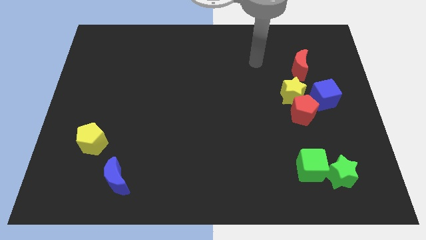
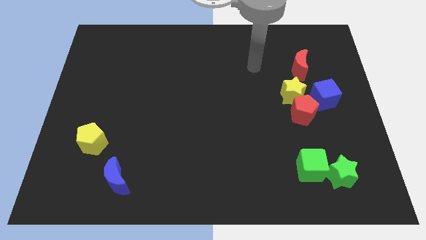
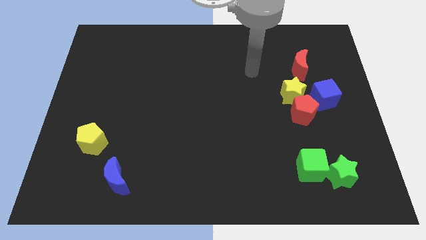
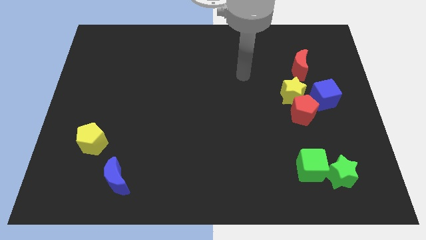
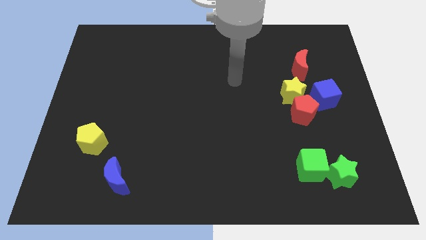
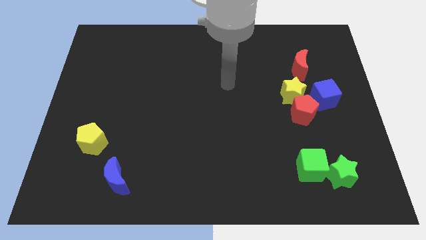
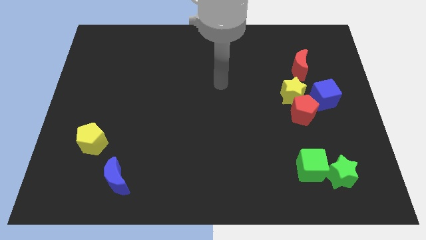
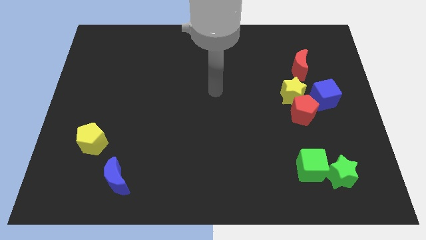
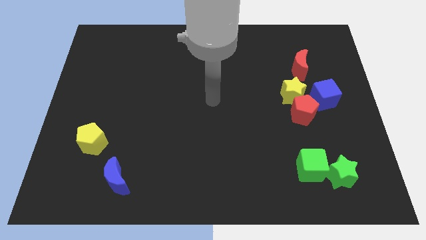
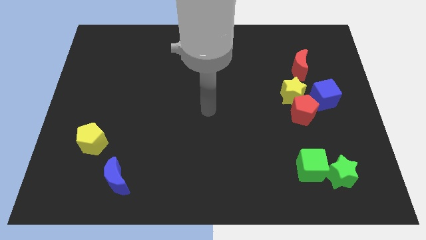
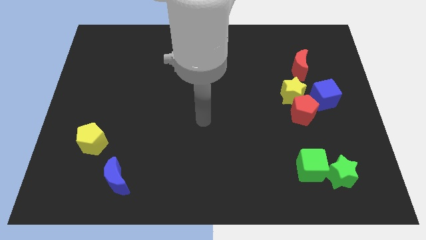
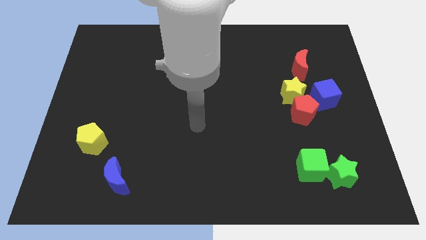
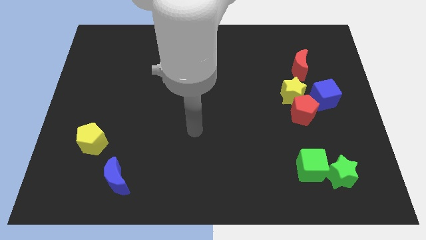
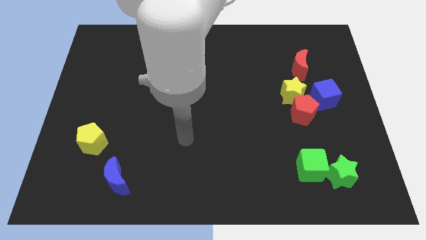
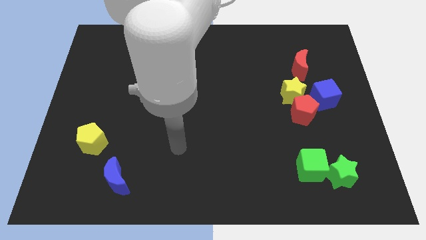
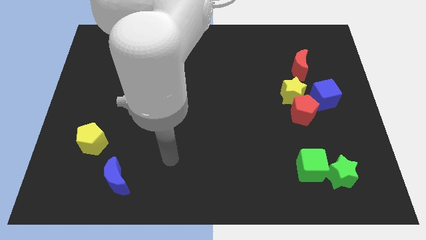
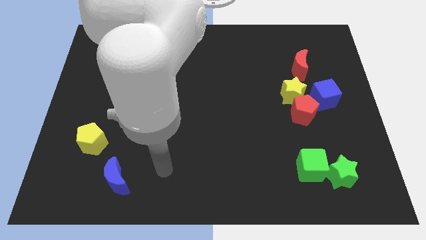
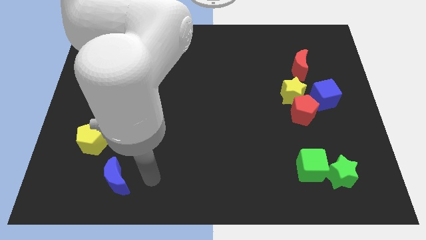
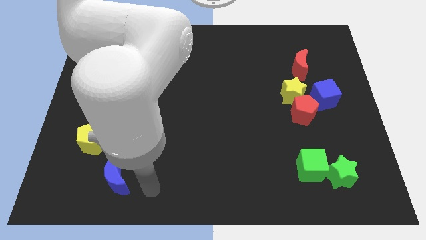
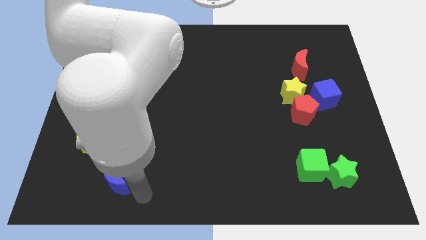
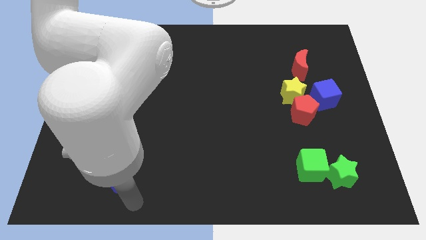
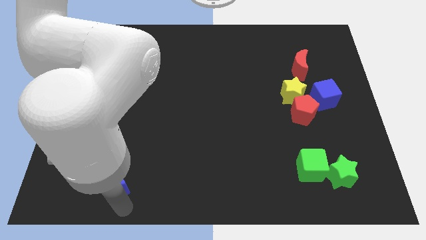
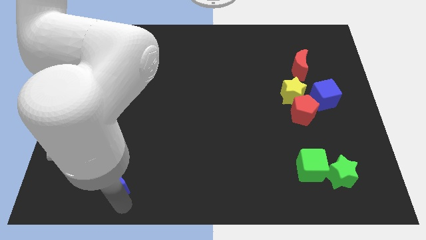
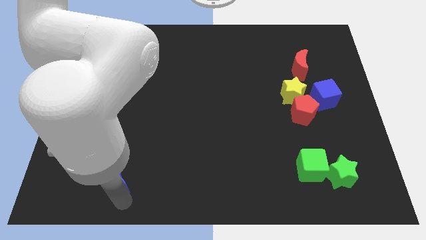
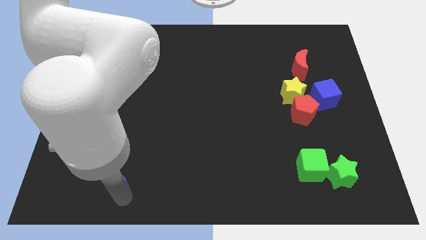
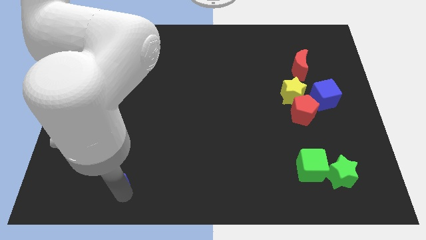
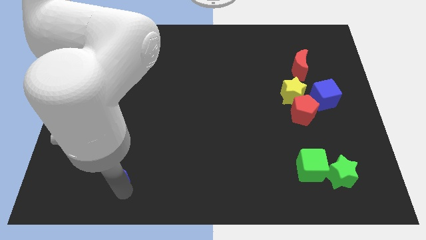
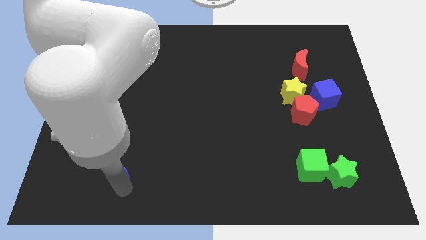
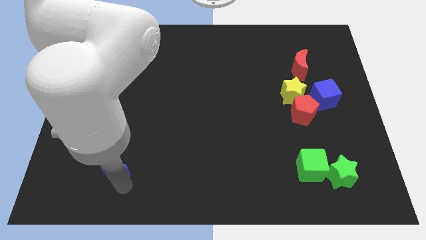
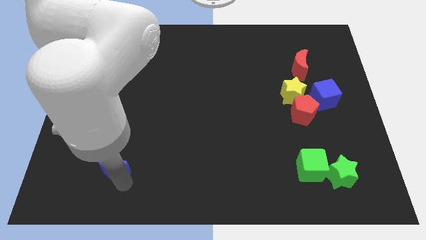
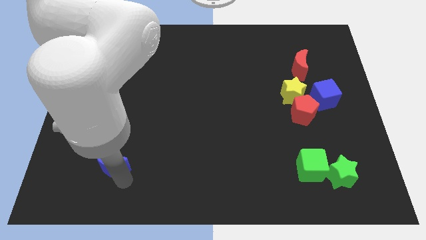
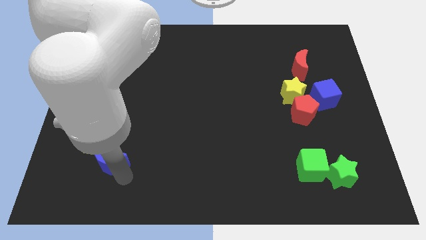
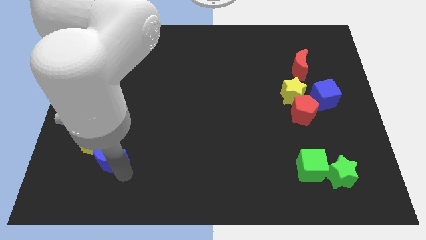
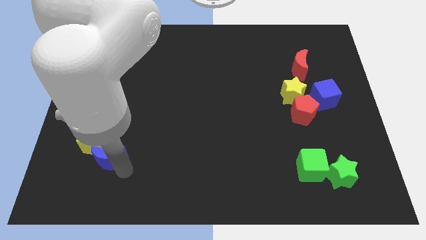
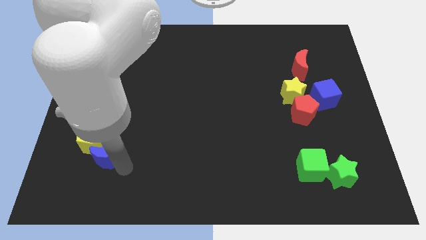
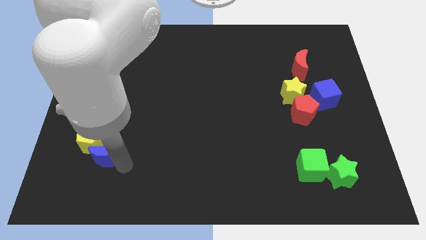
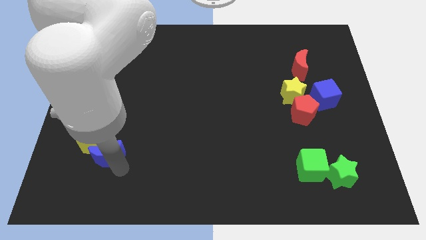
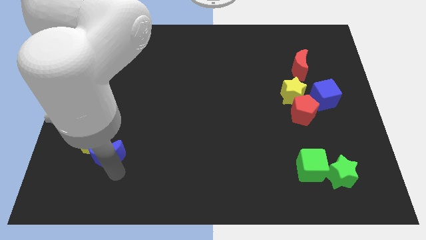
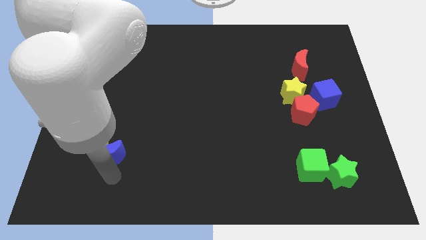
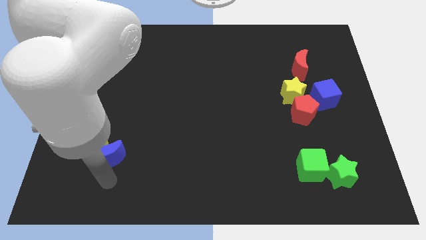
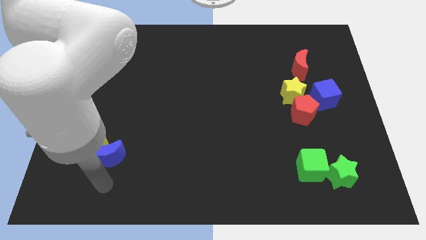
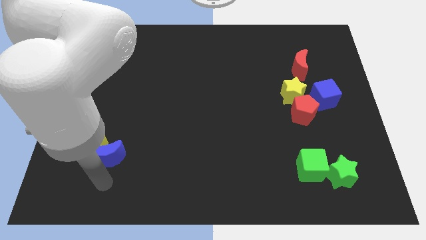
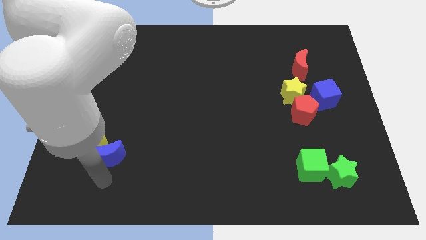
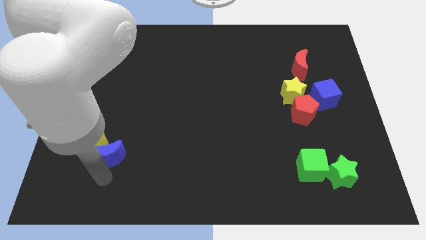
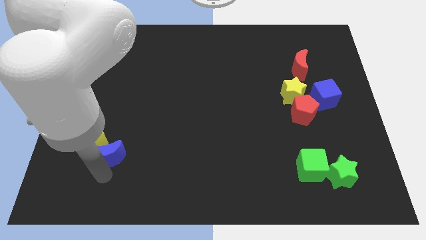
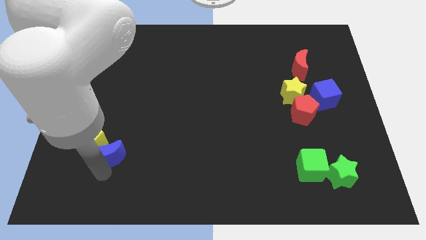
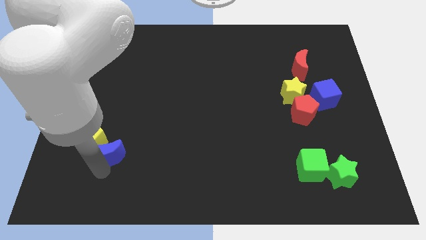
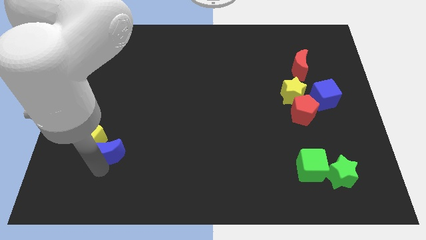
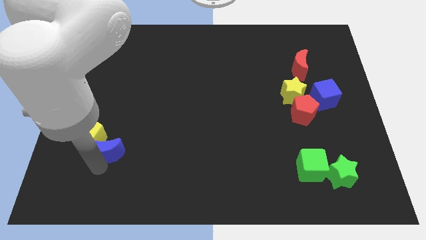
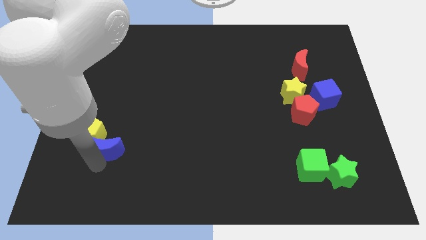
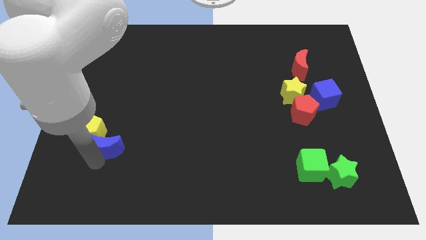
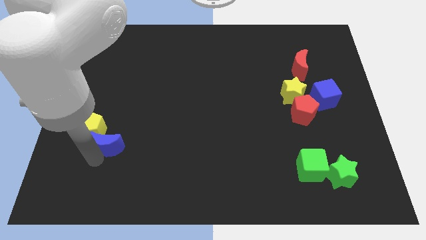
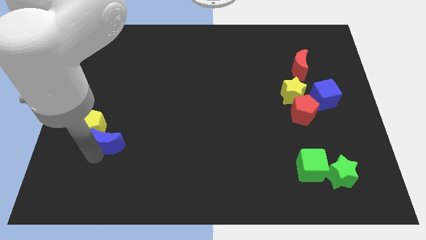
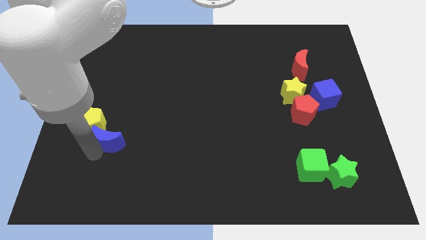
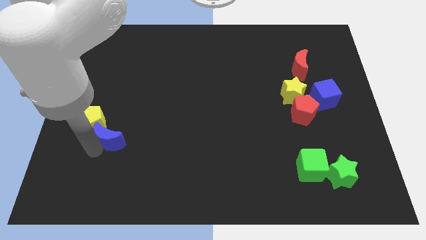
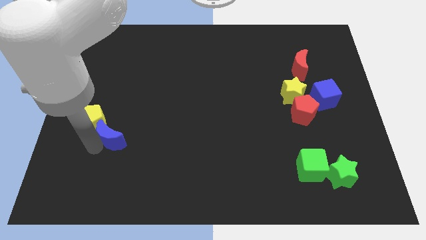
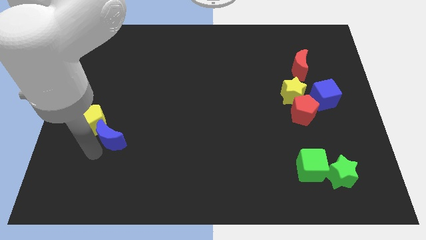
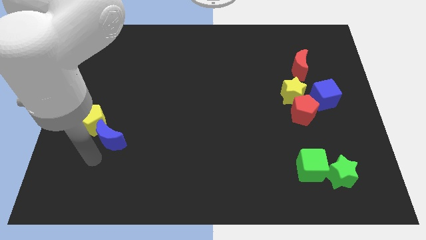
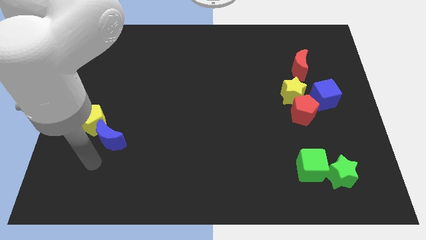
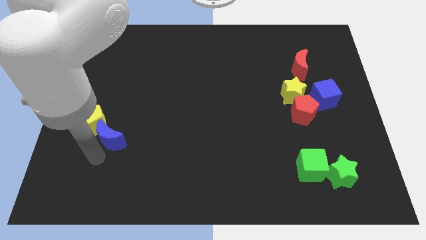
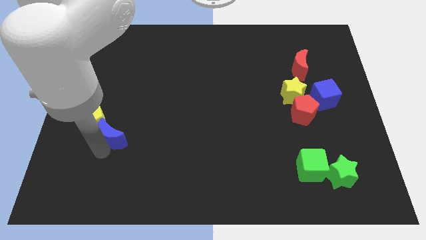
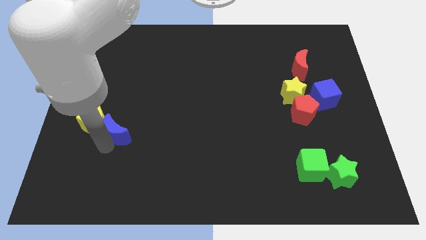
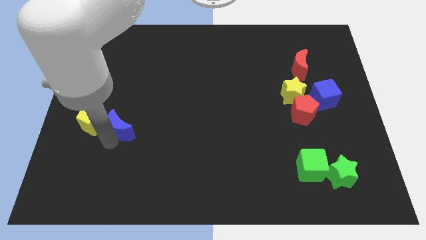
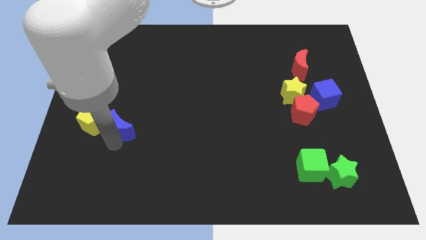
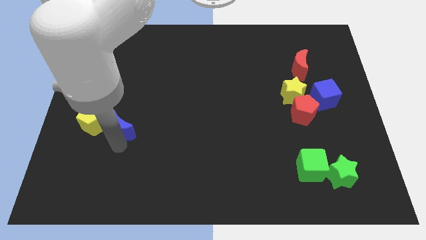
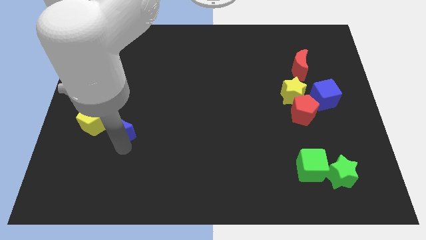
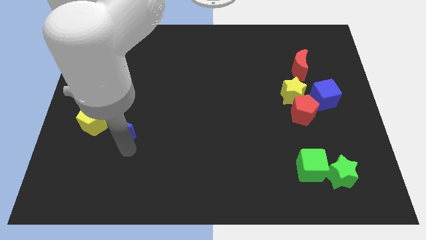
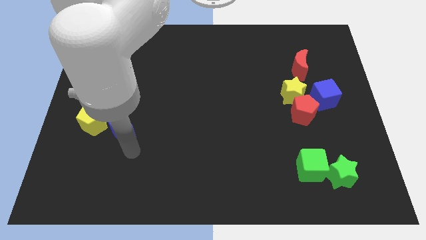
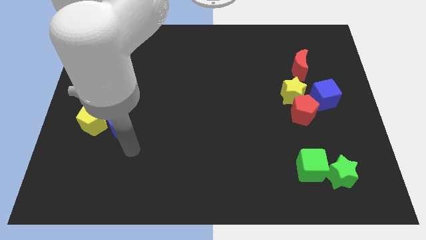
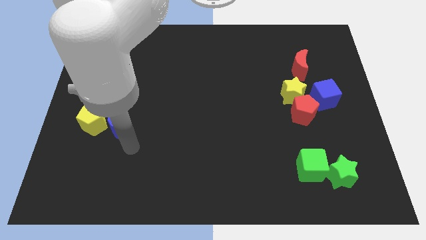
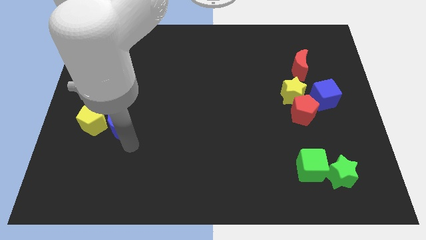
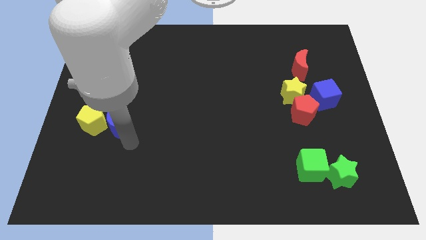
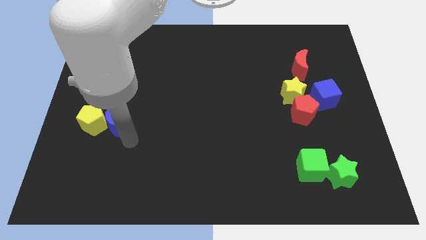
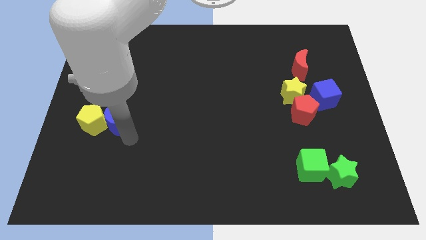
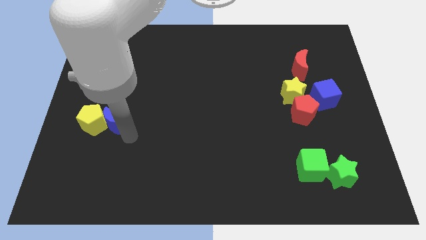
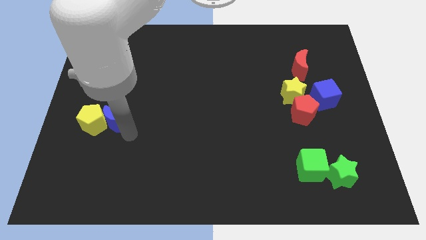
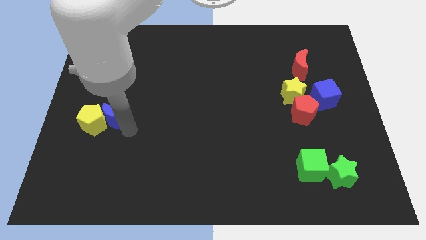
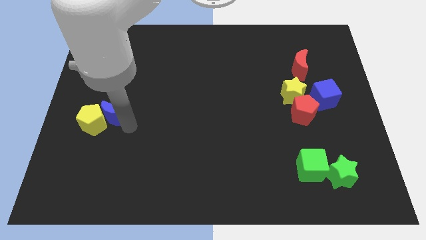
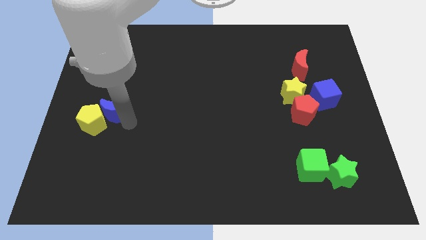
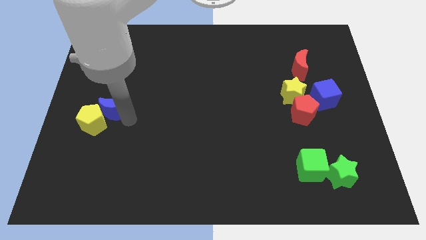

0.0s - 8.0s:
slide the blue moon to the top of the yellow pentagon
